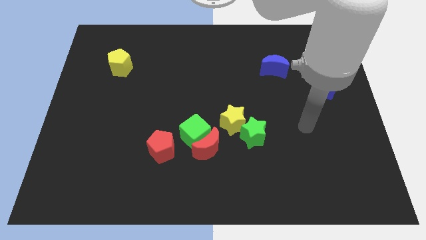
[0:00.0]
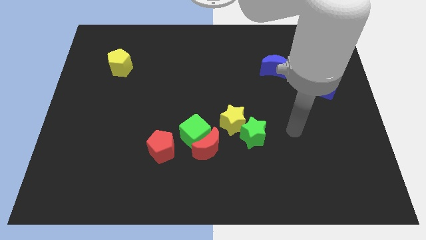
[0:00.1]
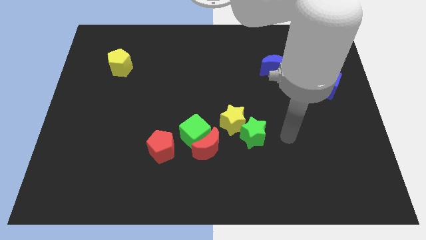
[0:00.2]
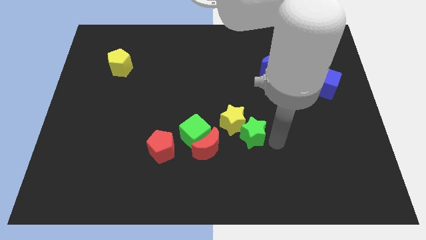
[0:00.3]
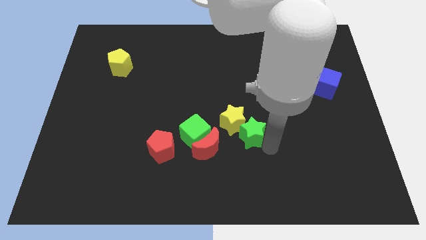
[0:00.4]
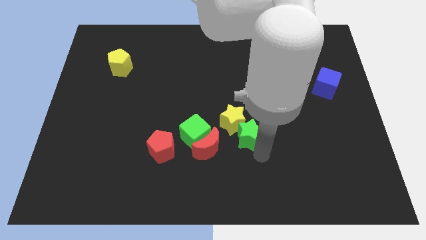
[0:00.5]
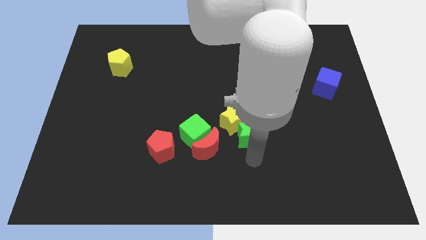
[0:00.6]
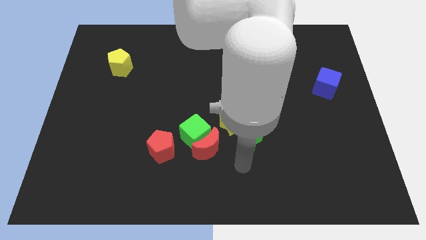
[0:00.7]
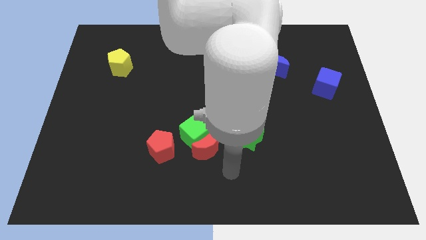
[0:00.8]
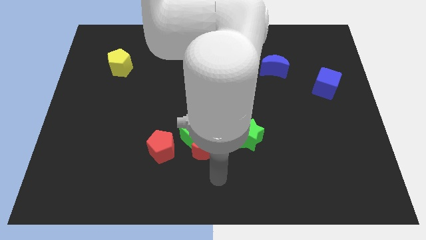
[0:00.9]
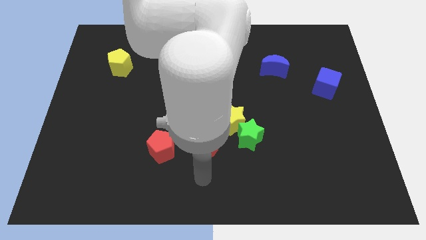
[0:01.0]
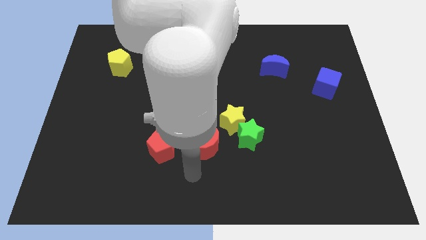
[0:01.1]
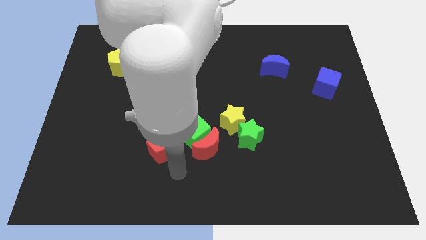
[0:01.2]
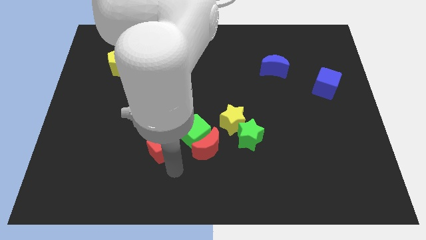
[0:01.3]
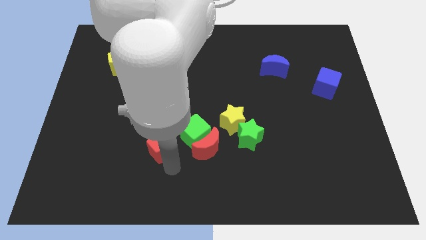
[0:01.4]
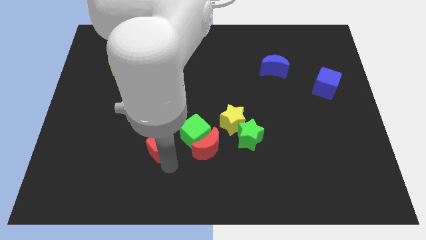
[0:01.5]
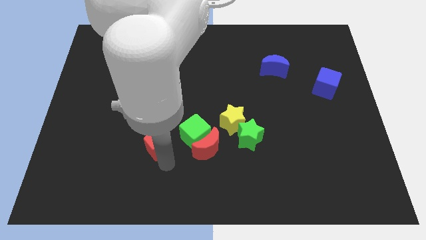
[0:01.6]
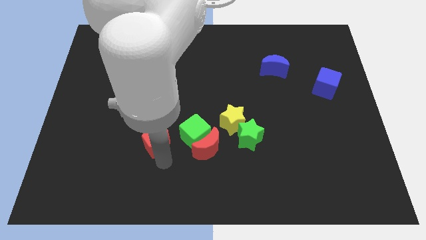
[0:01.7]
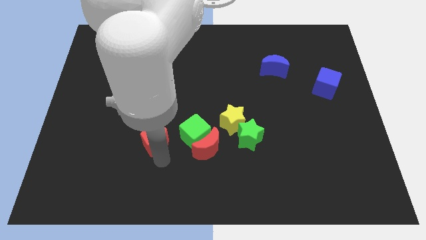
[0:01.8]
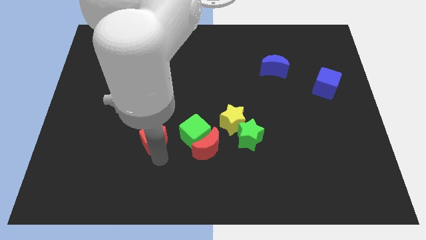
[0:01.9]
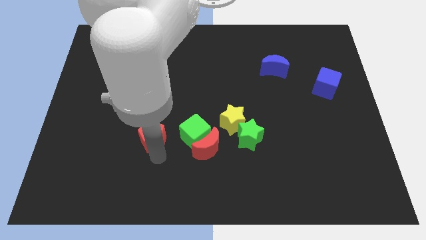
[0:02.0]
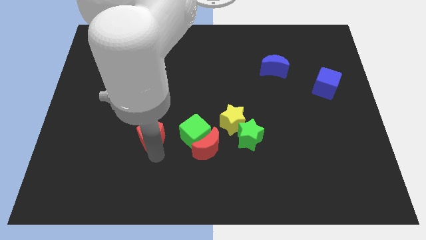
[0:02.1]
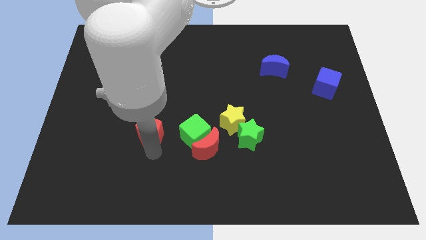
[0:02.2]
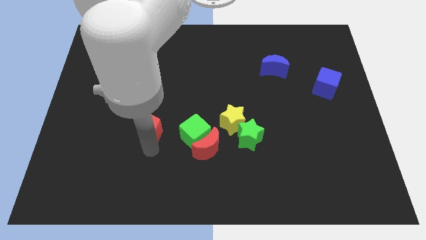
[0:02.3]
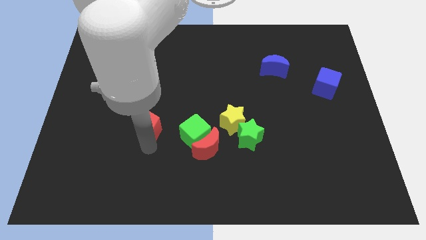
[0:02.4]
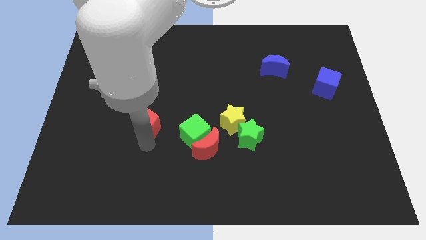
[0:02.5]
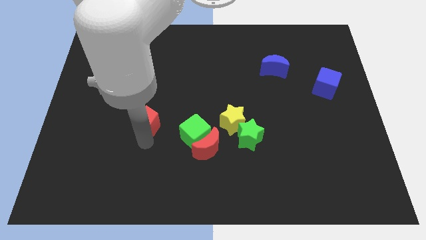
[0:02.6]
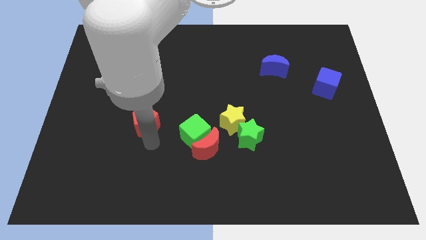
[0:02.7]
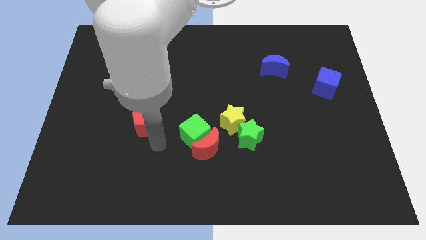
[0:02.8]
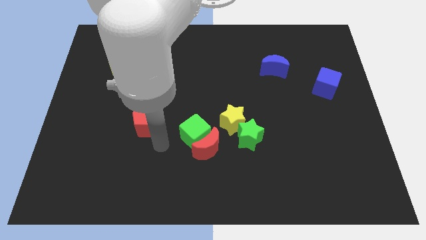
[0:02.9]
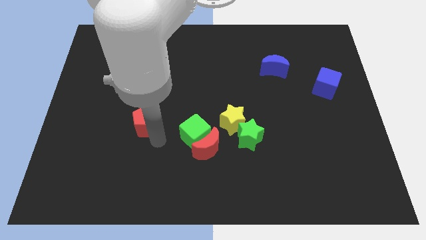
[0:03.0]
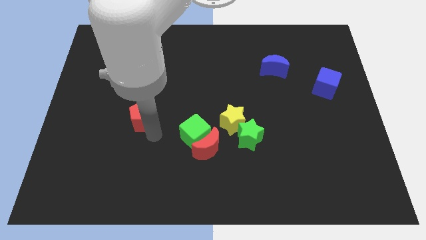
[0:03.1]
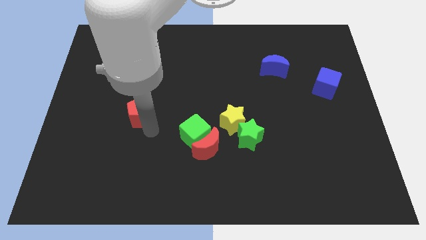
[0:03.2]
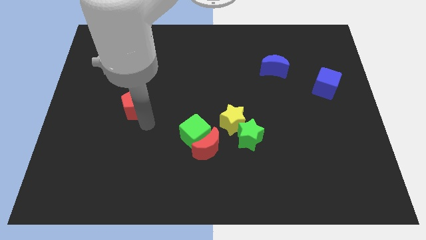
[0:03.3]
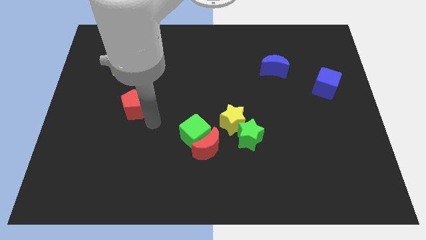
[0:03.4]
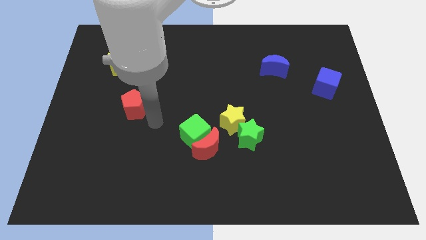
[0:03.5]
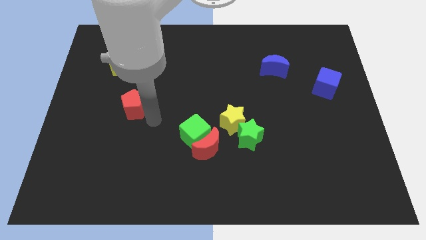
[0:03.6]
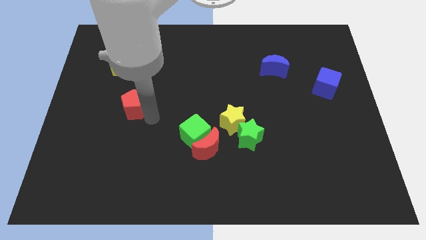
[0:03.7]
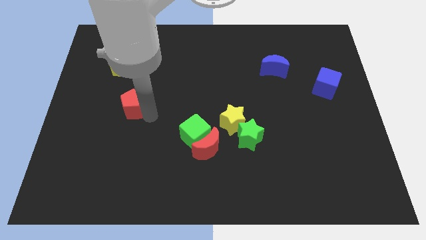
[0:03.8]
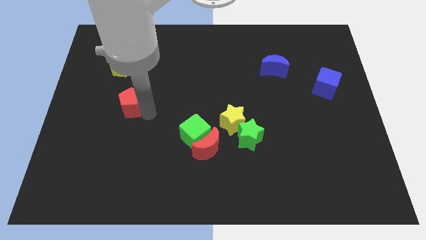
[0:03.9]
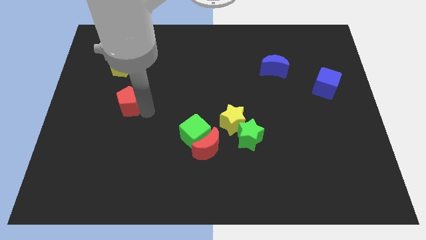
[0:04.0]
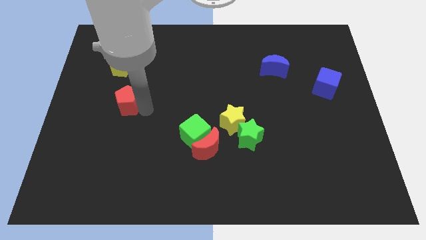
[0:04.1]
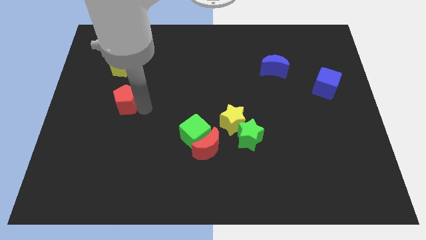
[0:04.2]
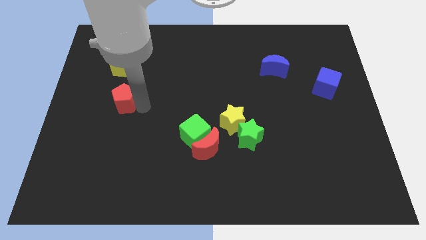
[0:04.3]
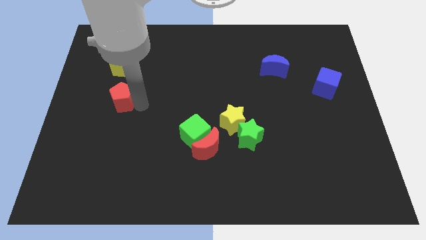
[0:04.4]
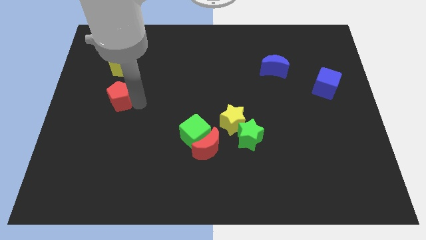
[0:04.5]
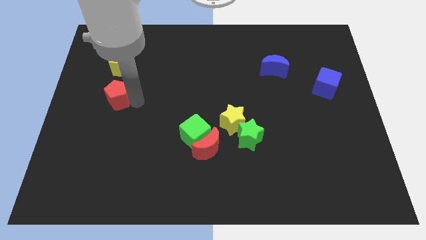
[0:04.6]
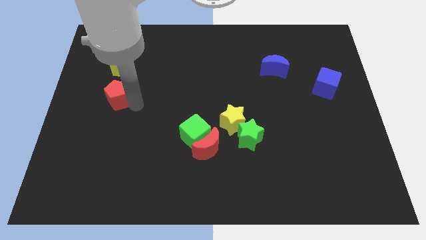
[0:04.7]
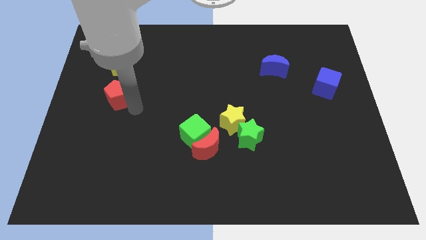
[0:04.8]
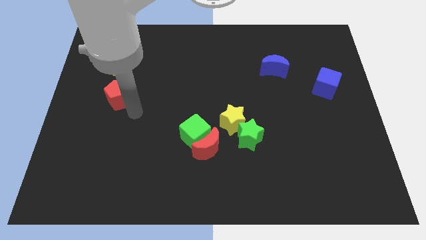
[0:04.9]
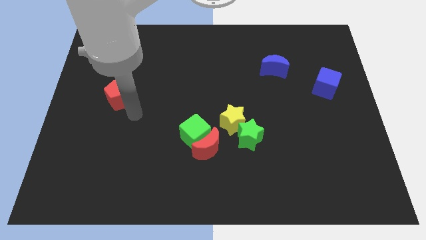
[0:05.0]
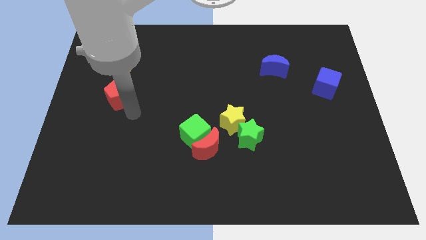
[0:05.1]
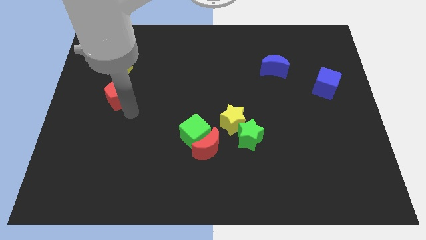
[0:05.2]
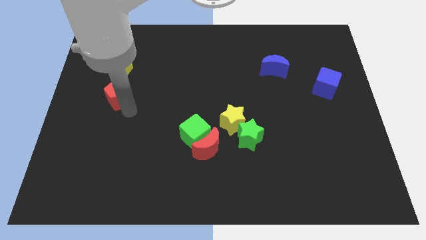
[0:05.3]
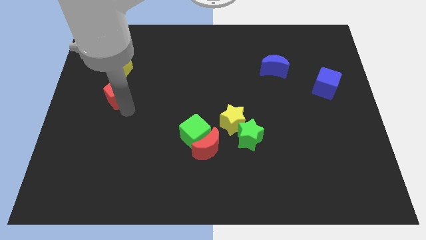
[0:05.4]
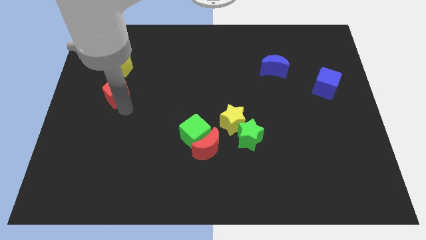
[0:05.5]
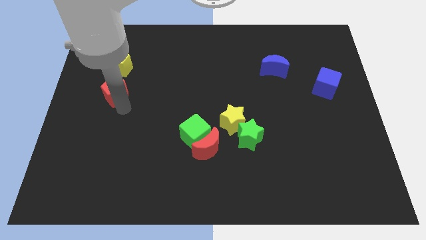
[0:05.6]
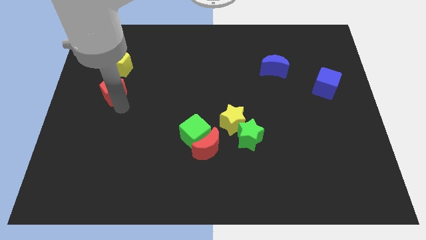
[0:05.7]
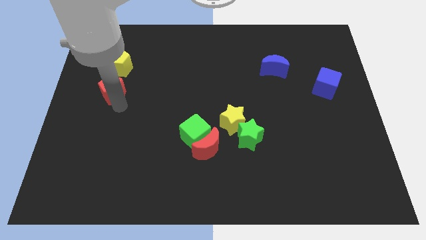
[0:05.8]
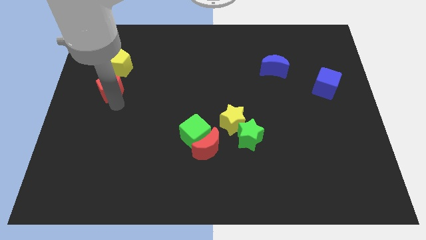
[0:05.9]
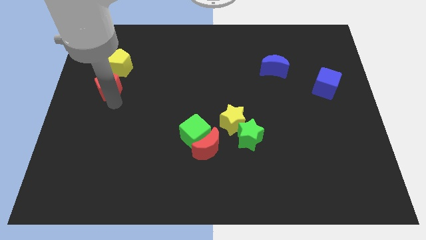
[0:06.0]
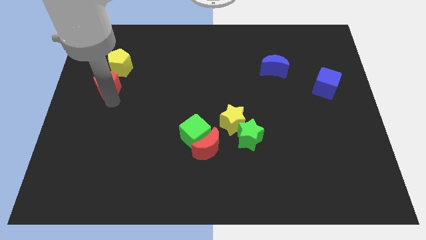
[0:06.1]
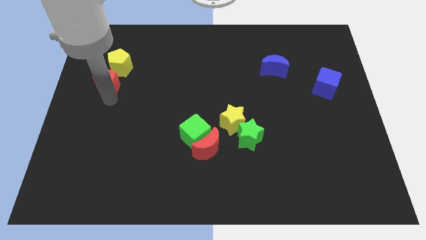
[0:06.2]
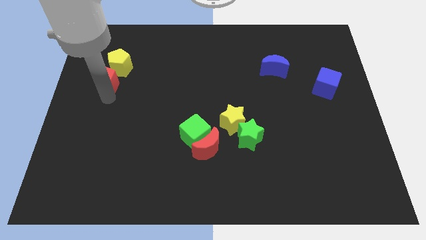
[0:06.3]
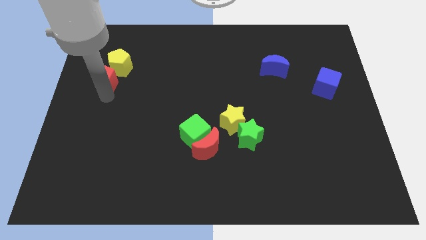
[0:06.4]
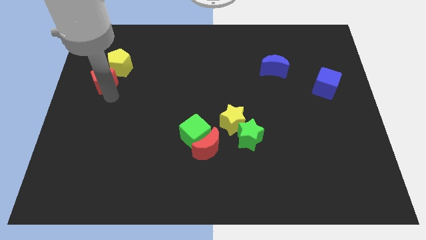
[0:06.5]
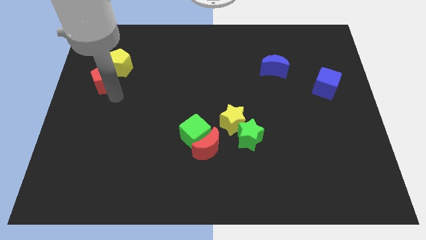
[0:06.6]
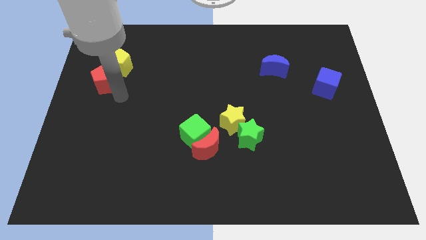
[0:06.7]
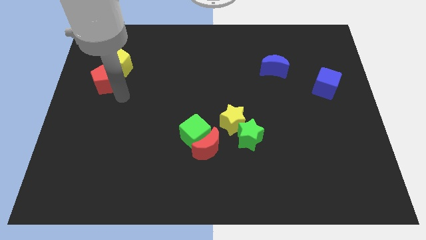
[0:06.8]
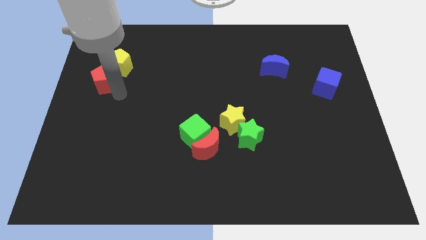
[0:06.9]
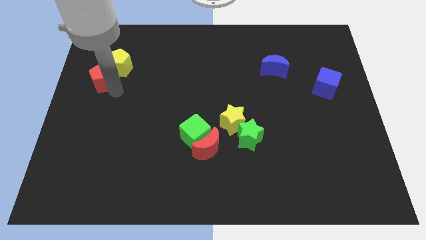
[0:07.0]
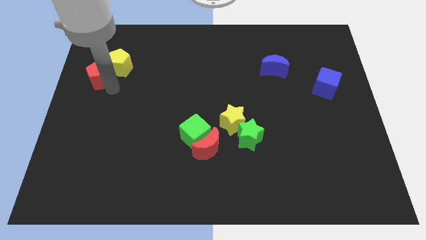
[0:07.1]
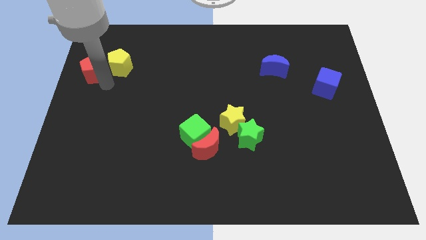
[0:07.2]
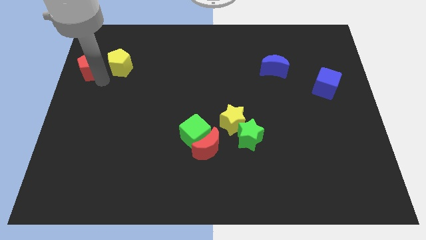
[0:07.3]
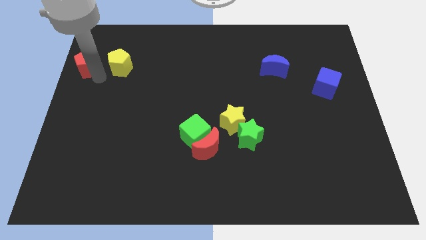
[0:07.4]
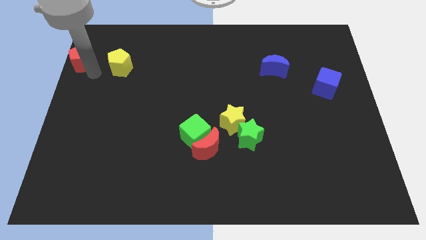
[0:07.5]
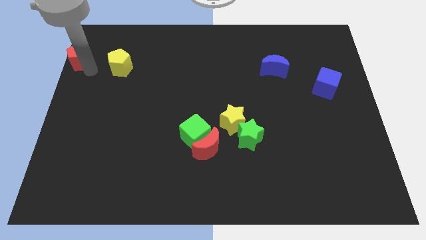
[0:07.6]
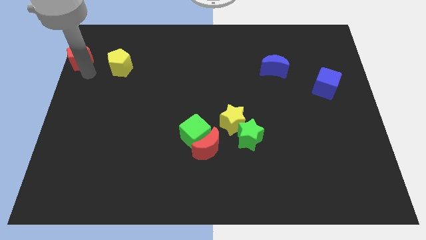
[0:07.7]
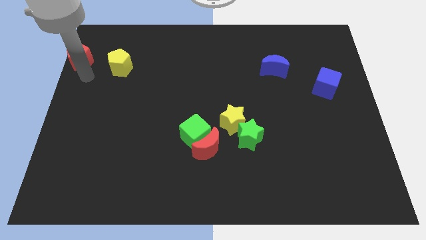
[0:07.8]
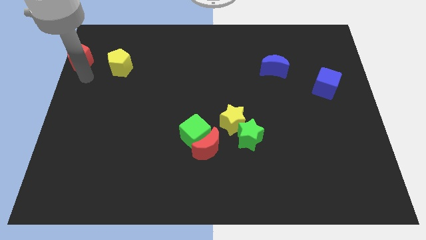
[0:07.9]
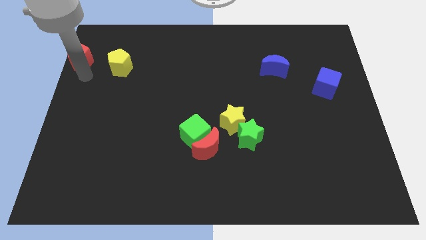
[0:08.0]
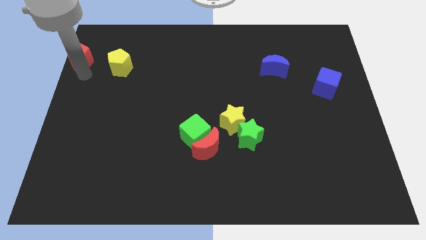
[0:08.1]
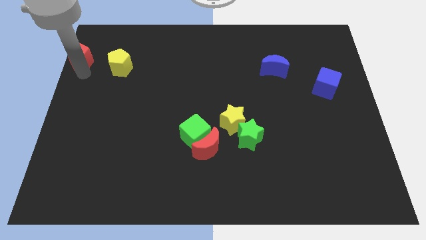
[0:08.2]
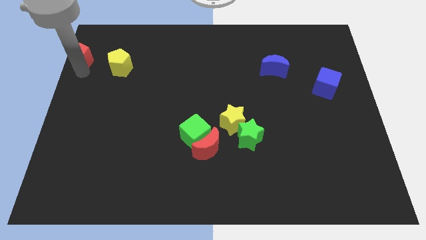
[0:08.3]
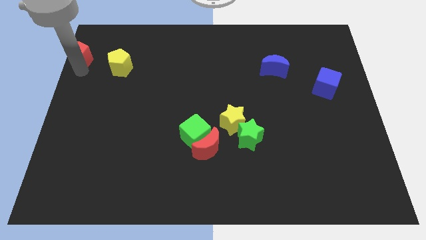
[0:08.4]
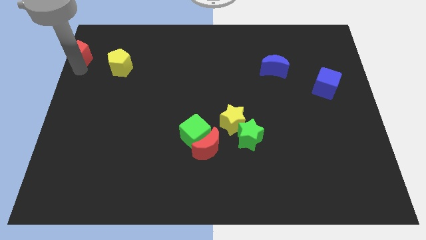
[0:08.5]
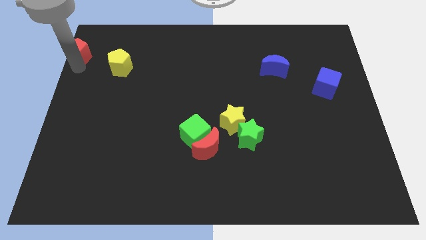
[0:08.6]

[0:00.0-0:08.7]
put the red pentagon to the upper left corner
